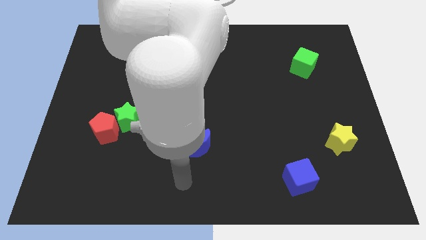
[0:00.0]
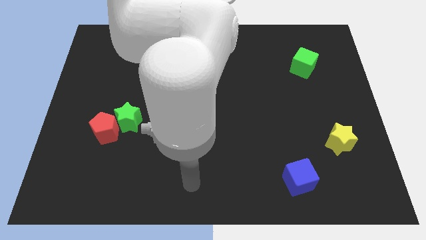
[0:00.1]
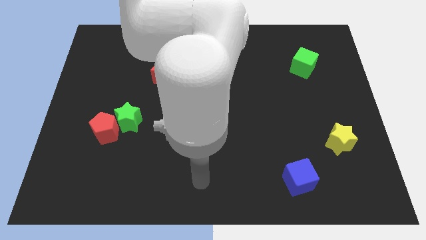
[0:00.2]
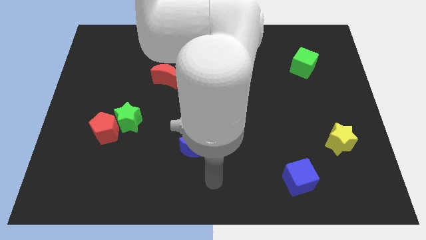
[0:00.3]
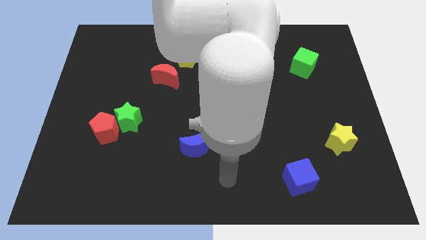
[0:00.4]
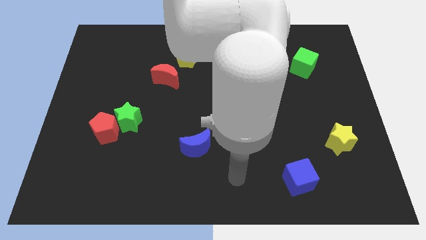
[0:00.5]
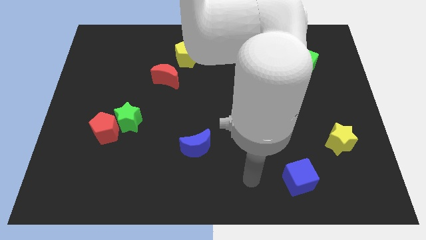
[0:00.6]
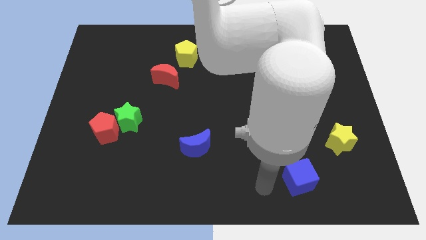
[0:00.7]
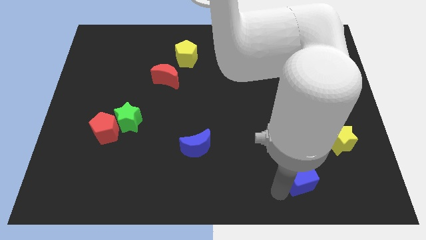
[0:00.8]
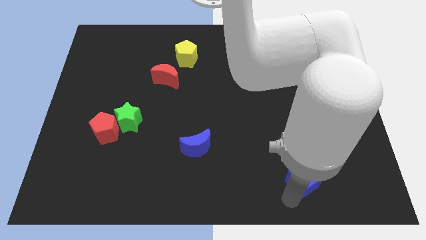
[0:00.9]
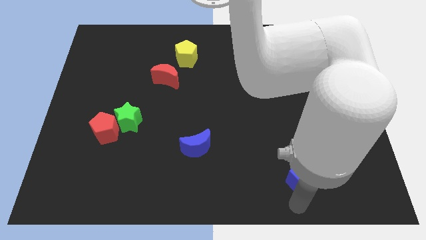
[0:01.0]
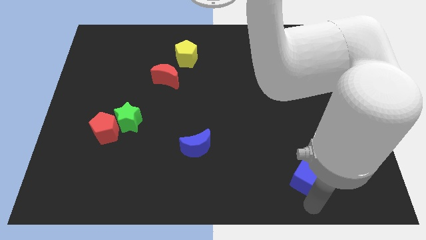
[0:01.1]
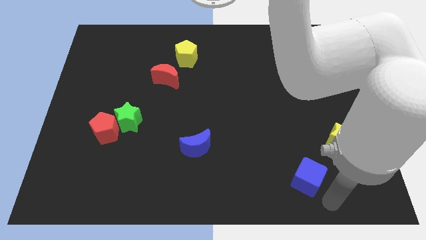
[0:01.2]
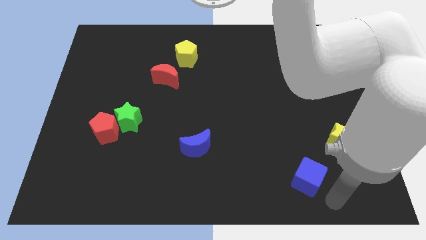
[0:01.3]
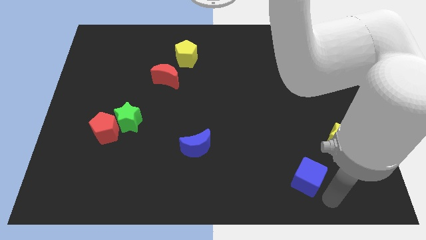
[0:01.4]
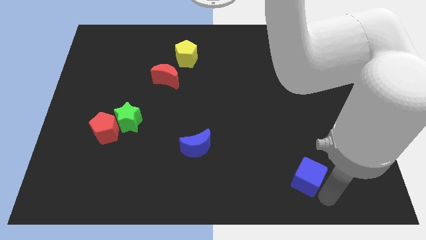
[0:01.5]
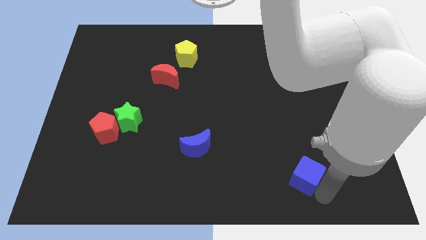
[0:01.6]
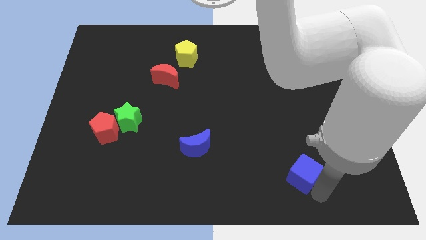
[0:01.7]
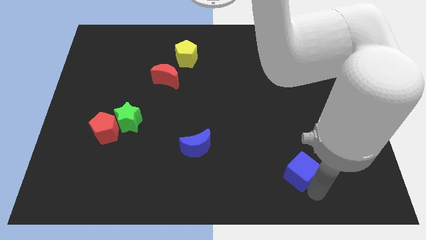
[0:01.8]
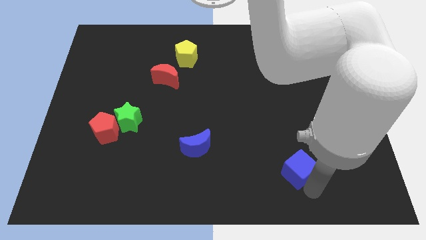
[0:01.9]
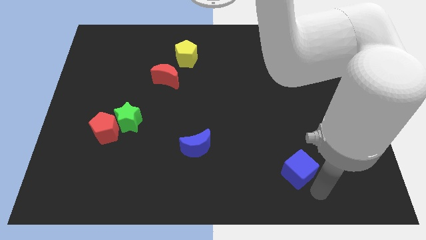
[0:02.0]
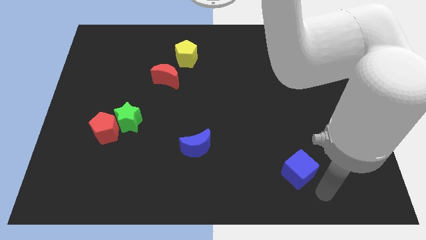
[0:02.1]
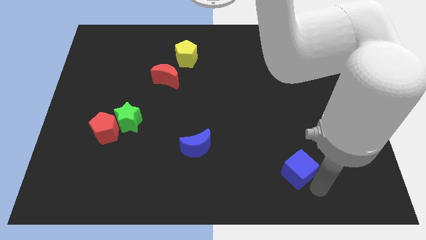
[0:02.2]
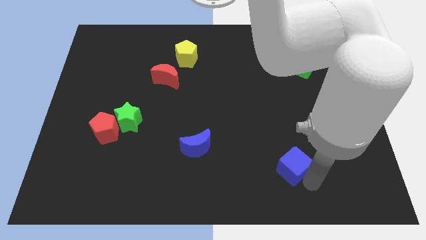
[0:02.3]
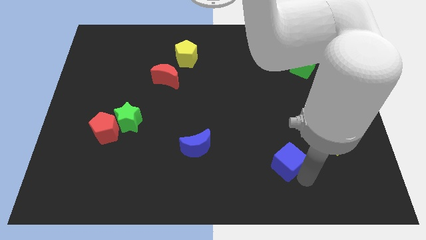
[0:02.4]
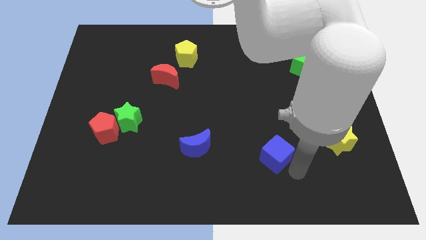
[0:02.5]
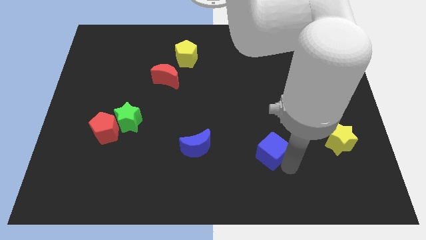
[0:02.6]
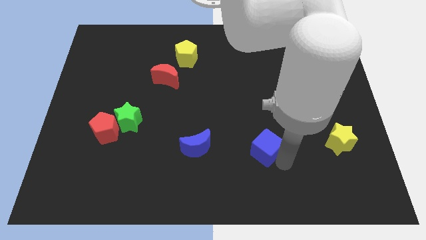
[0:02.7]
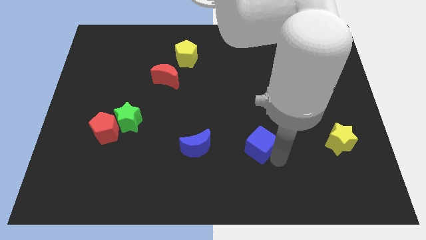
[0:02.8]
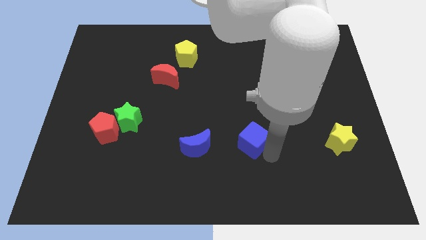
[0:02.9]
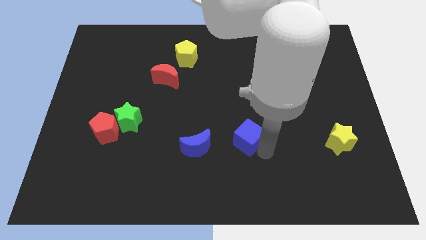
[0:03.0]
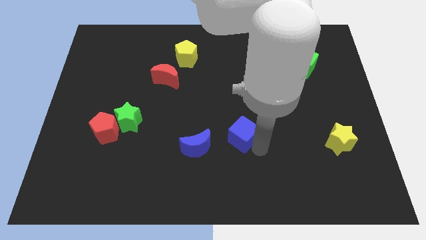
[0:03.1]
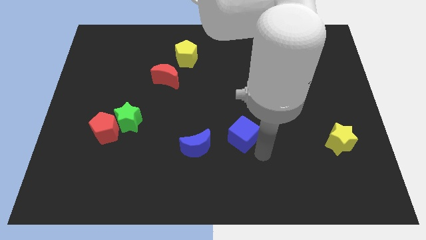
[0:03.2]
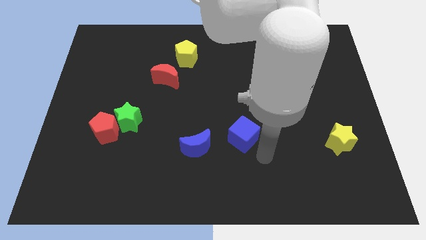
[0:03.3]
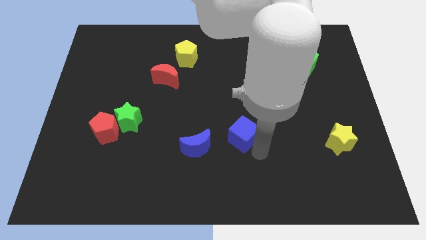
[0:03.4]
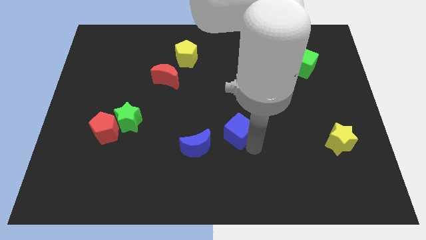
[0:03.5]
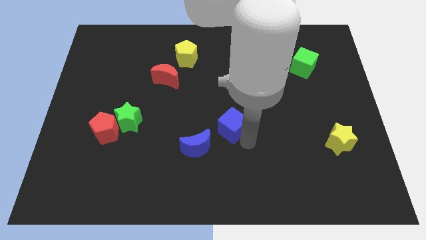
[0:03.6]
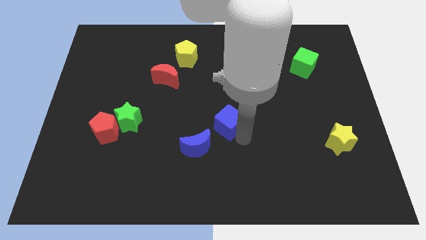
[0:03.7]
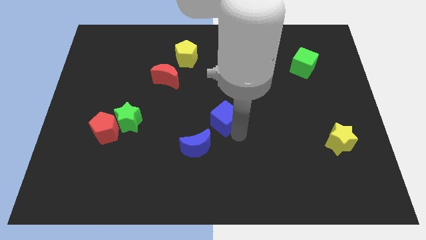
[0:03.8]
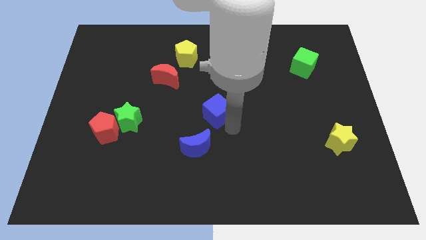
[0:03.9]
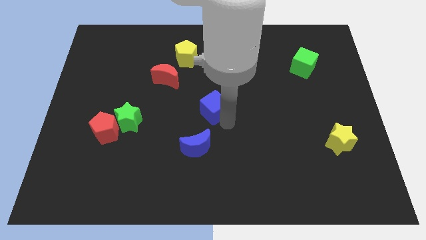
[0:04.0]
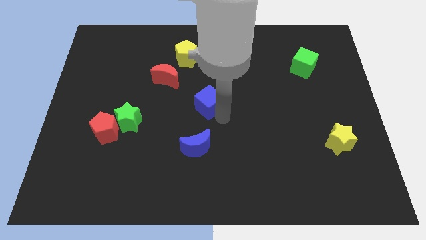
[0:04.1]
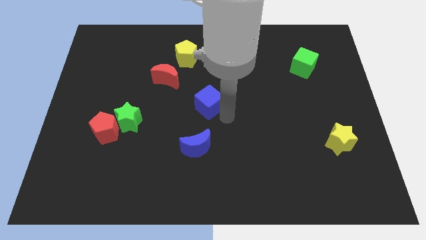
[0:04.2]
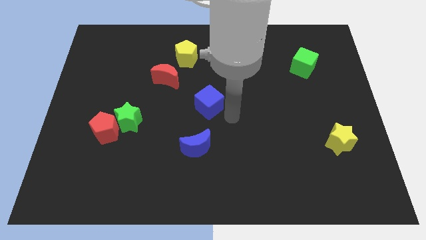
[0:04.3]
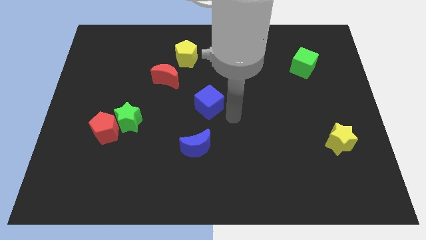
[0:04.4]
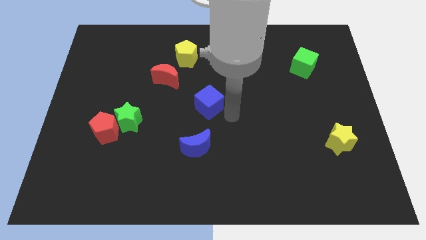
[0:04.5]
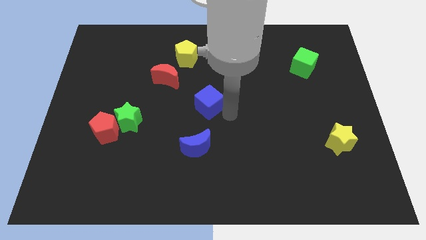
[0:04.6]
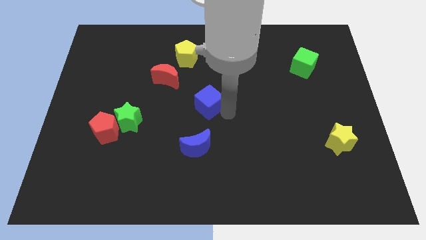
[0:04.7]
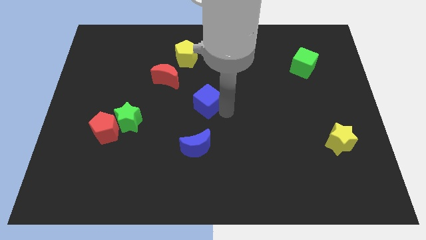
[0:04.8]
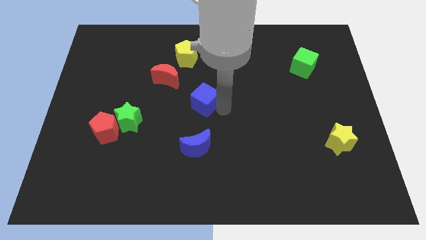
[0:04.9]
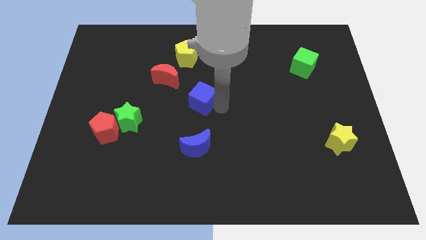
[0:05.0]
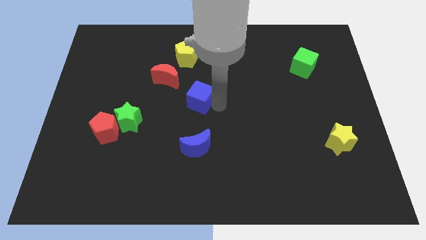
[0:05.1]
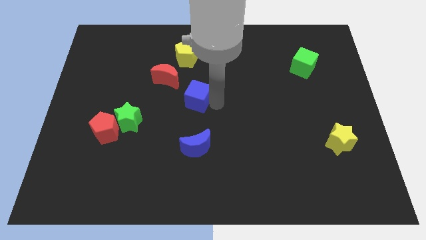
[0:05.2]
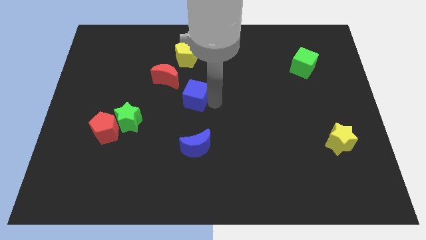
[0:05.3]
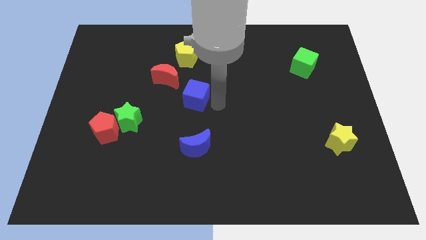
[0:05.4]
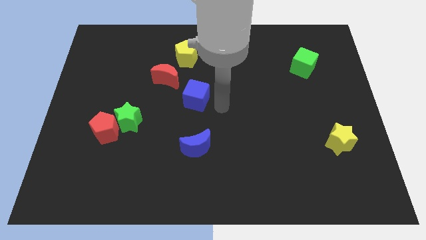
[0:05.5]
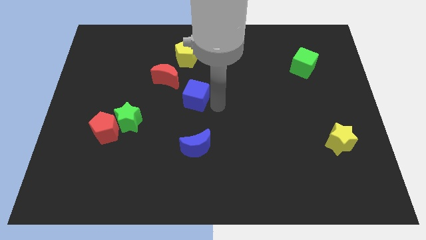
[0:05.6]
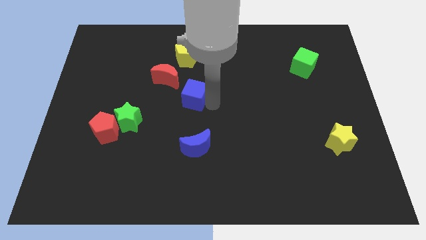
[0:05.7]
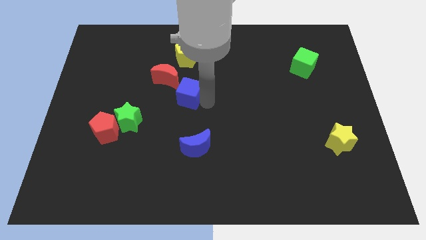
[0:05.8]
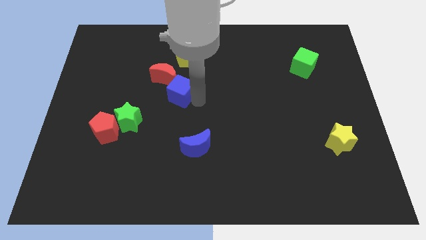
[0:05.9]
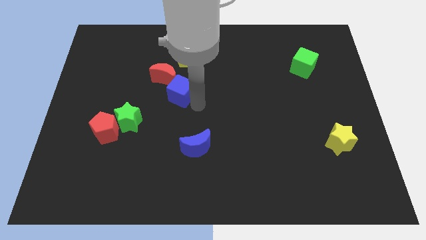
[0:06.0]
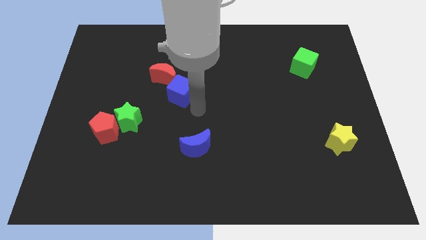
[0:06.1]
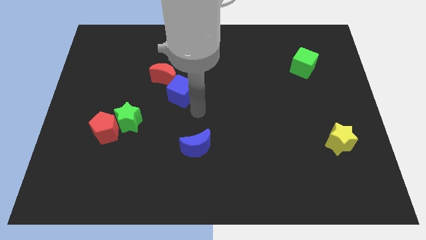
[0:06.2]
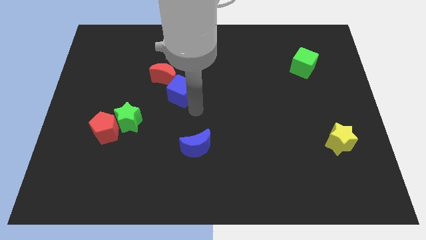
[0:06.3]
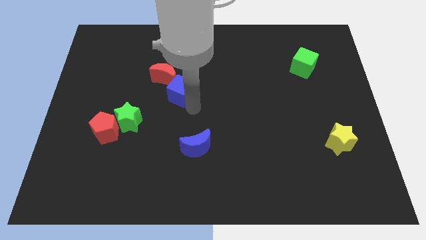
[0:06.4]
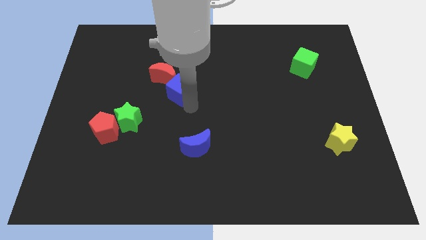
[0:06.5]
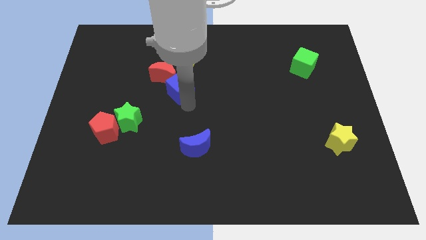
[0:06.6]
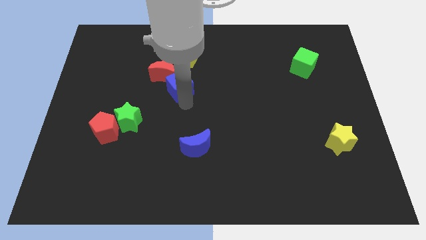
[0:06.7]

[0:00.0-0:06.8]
move the blue cube to the red moon
